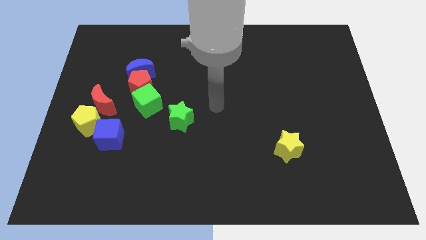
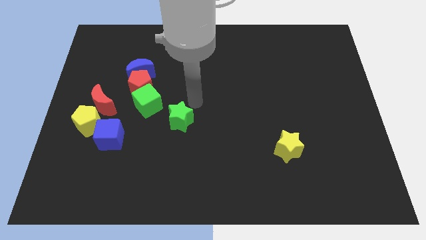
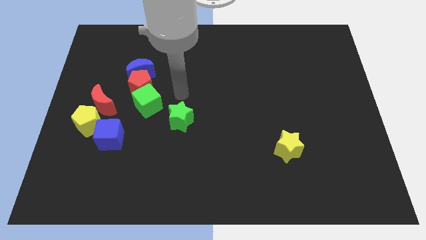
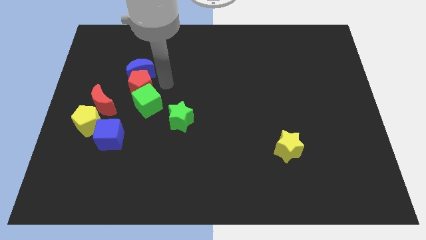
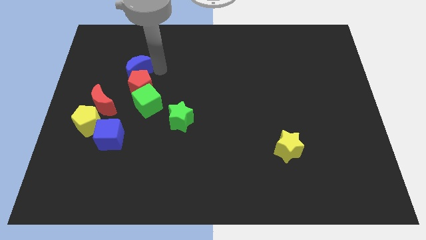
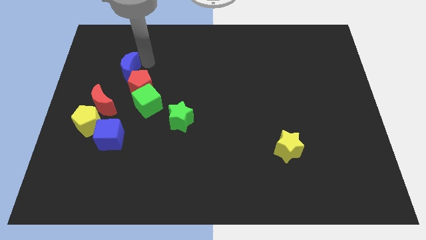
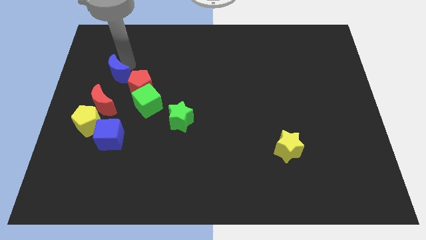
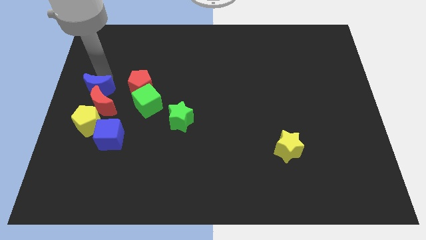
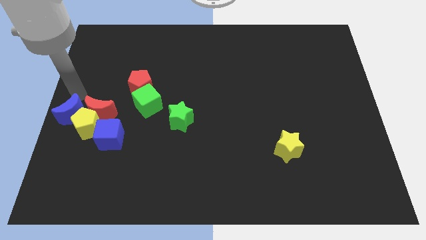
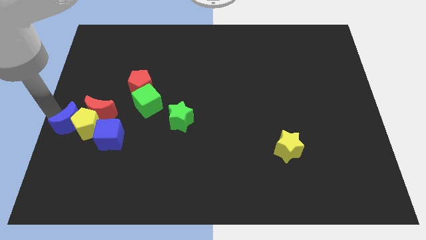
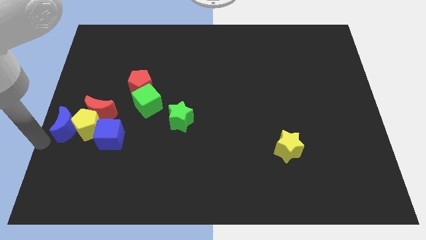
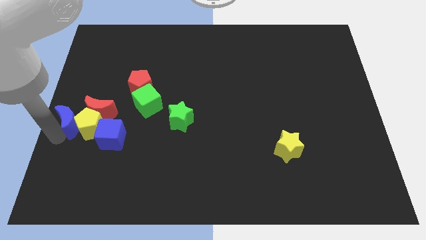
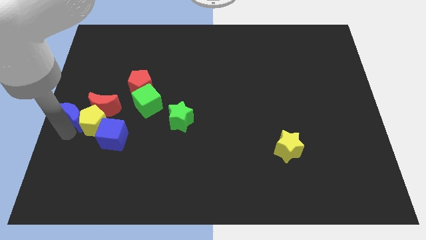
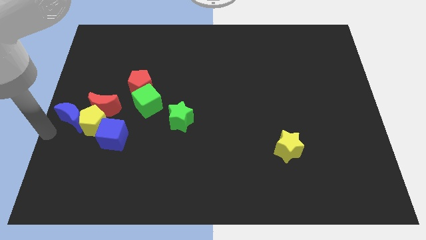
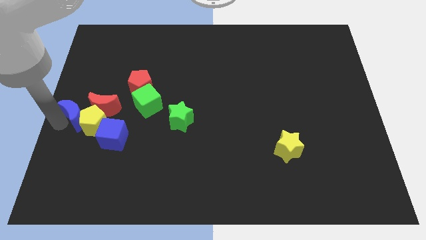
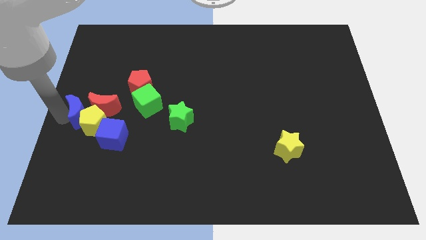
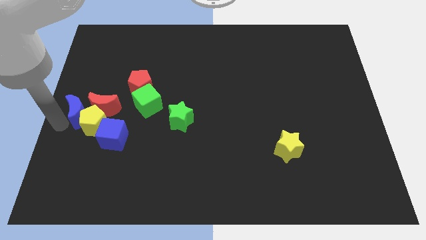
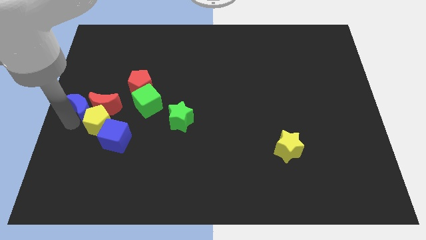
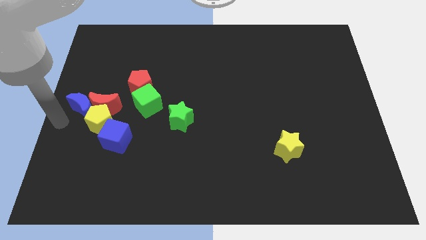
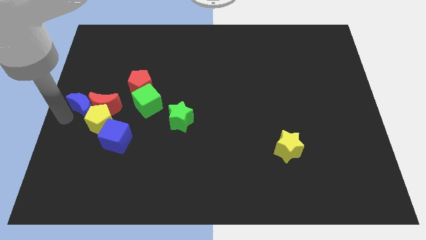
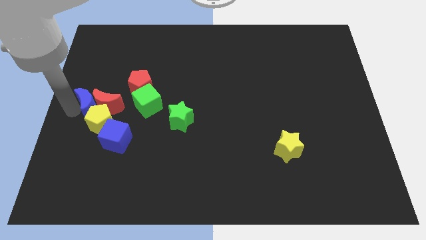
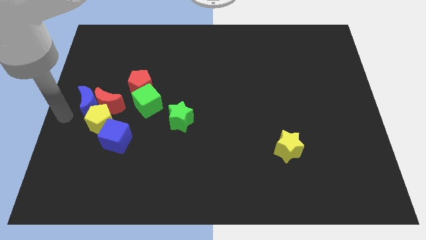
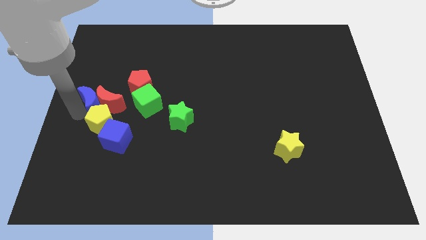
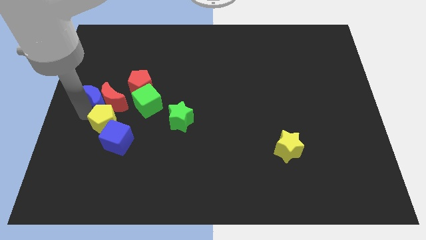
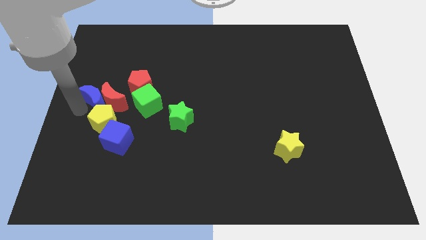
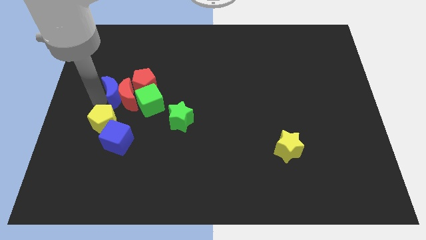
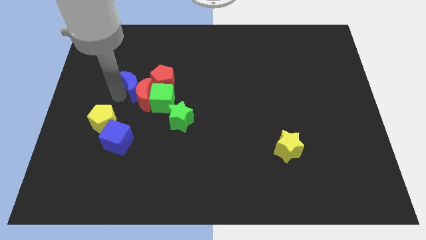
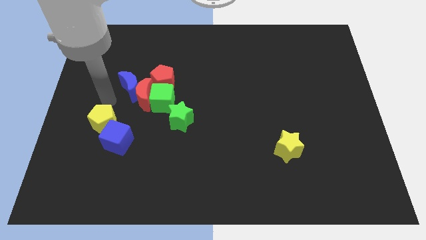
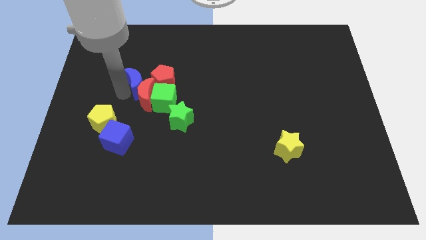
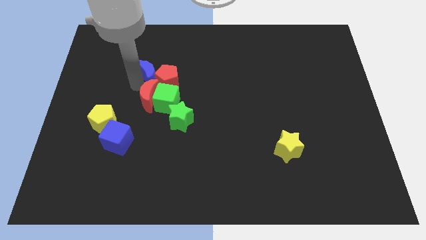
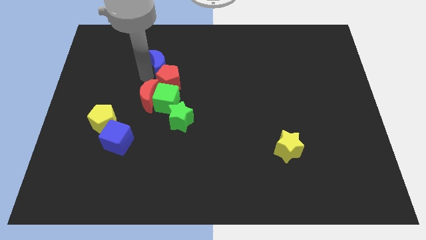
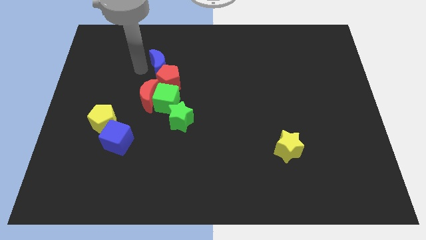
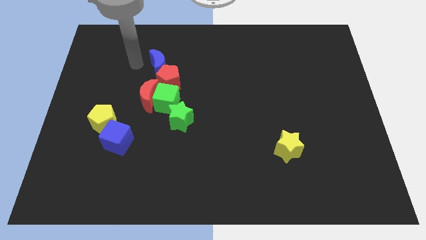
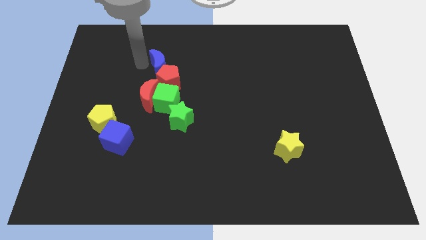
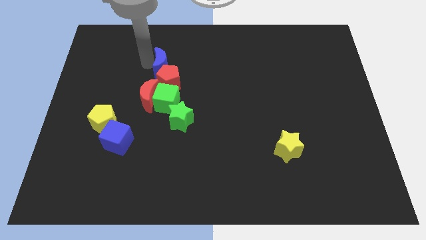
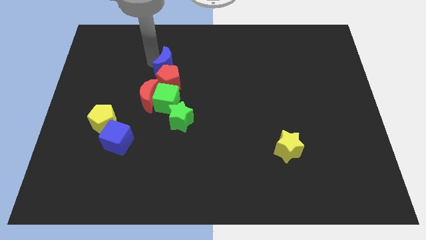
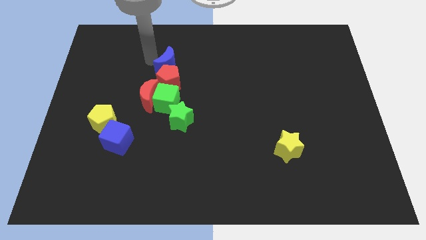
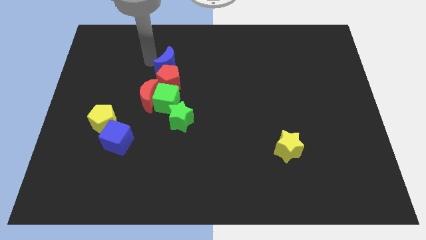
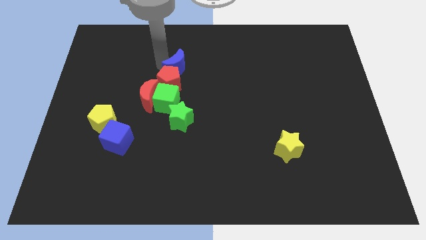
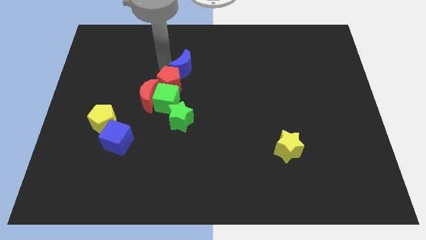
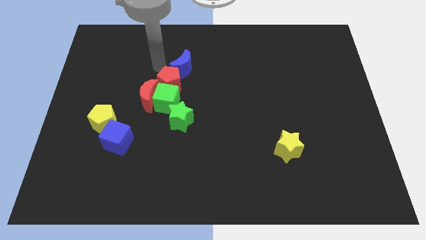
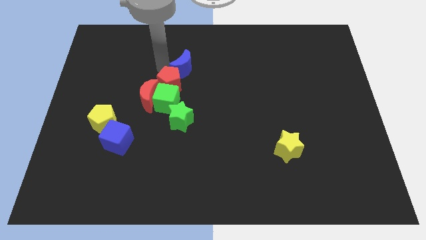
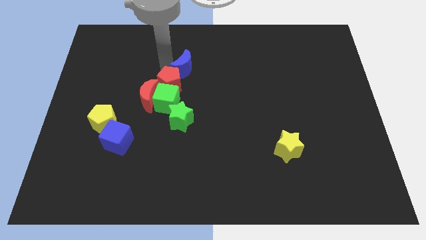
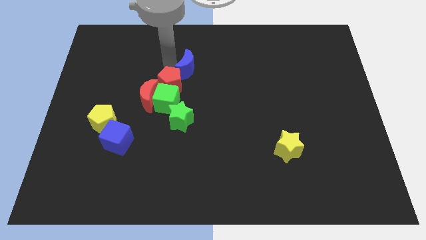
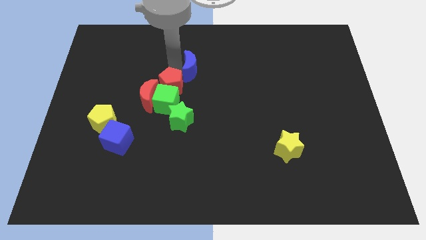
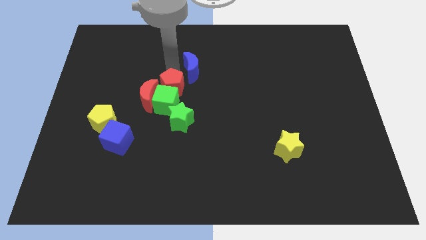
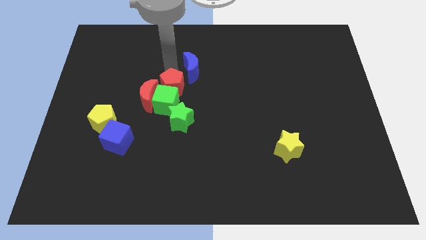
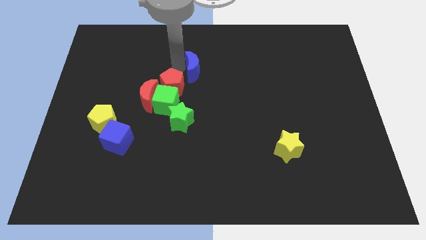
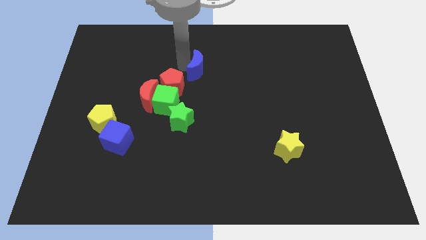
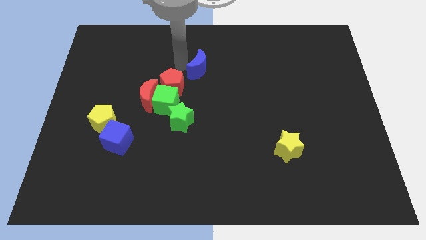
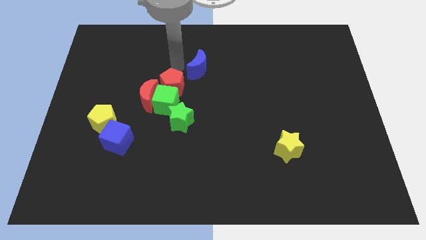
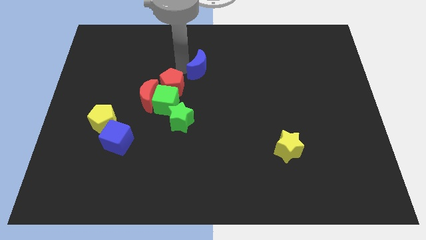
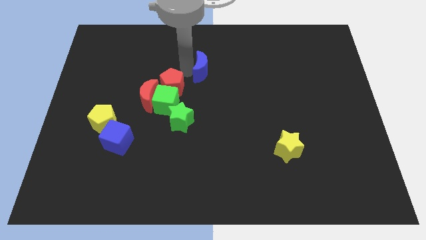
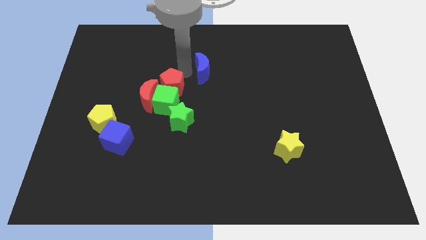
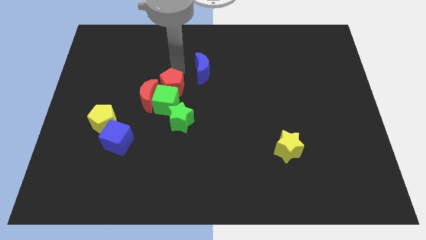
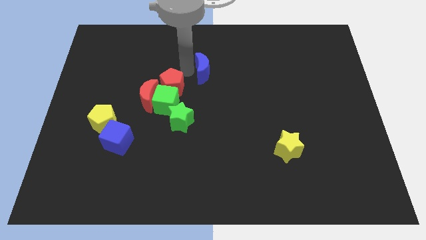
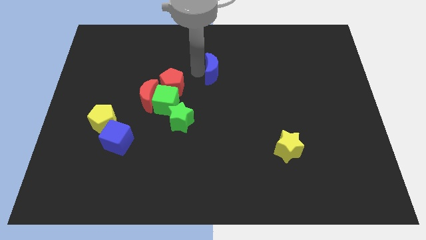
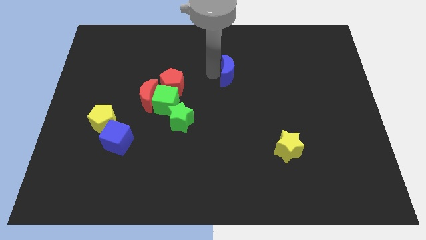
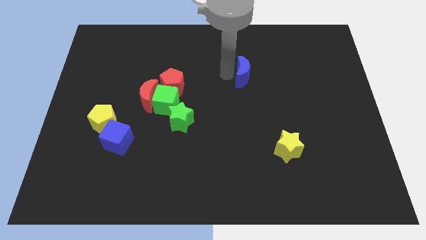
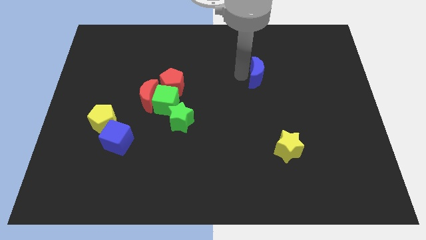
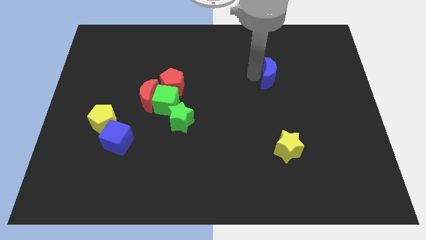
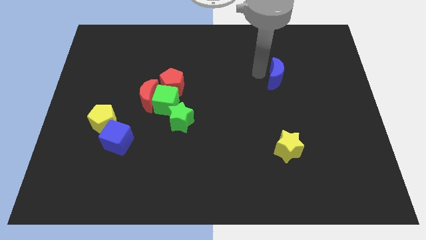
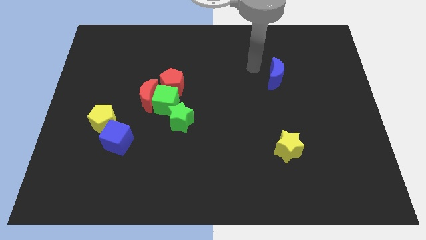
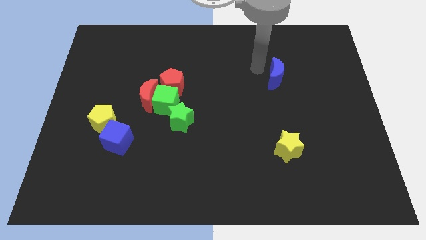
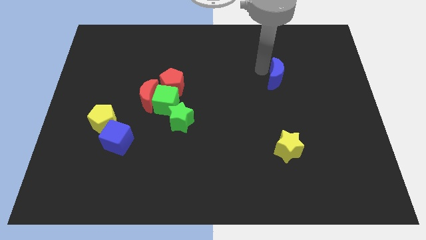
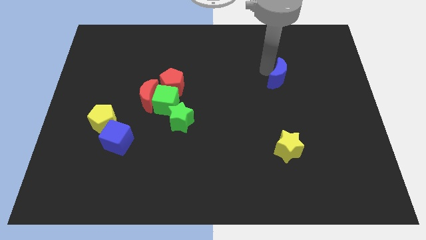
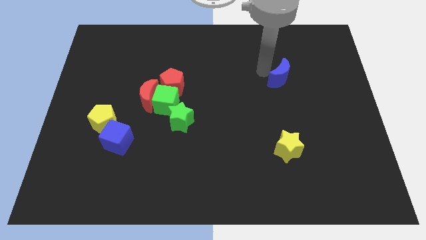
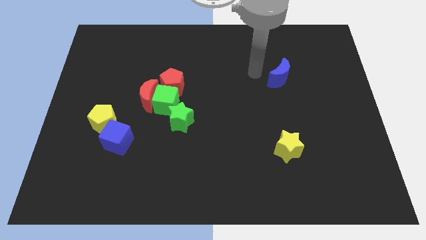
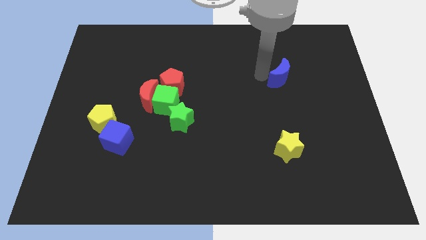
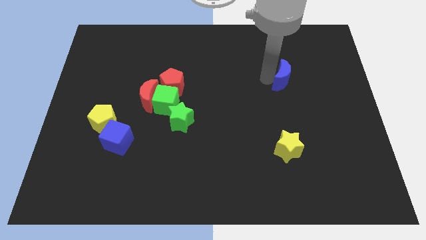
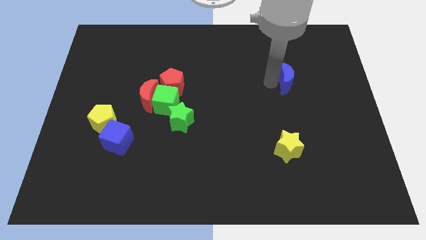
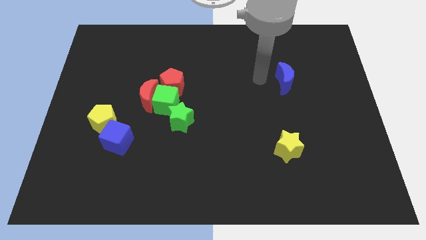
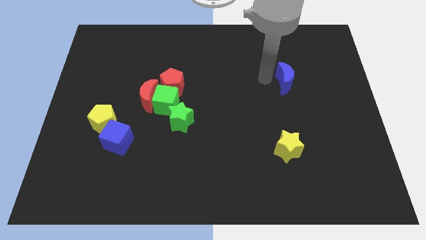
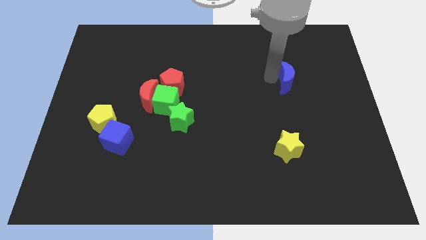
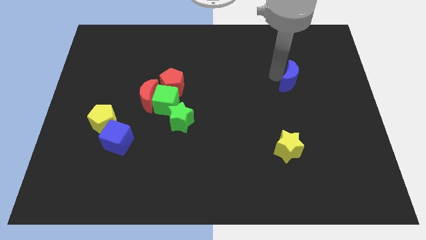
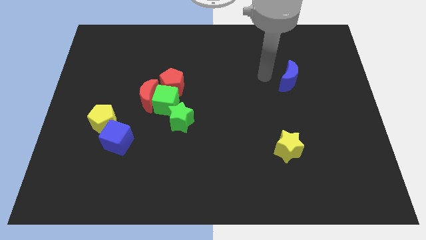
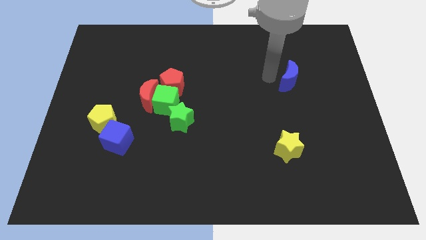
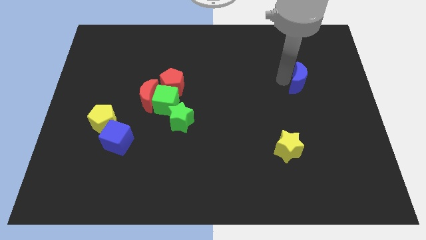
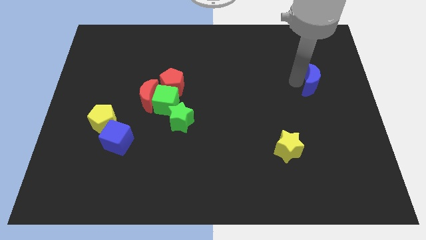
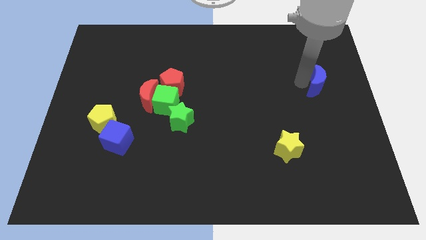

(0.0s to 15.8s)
slide the blue moon to the right side
